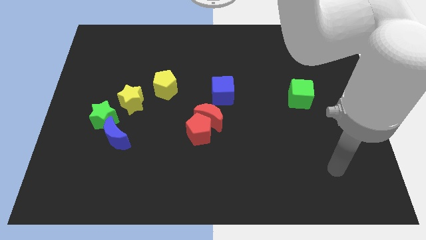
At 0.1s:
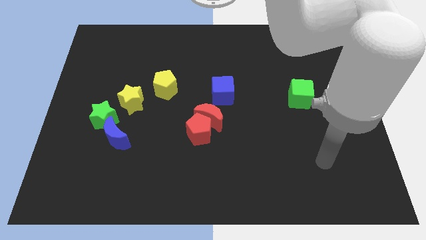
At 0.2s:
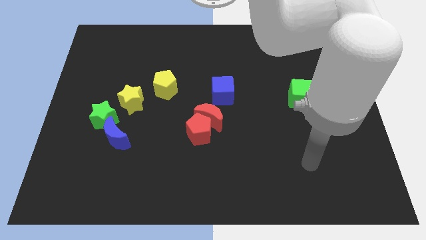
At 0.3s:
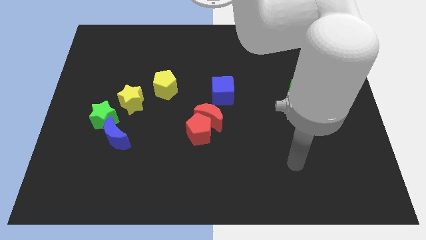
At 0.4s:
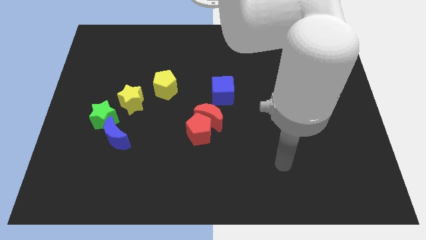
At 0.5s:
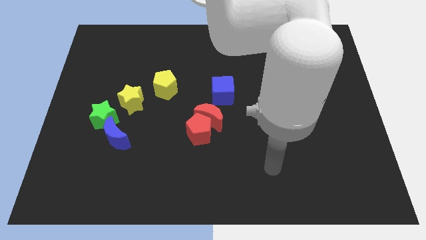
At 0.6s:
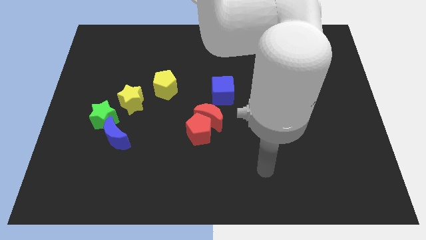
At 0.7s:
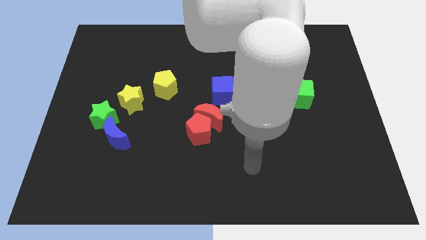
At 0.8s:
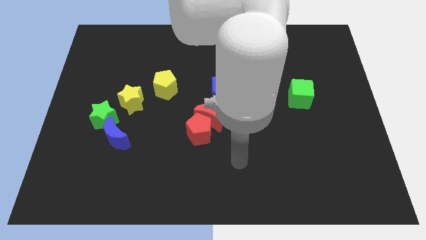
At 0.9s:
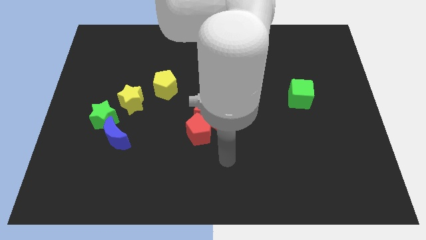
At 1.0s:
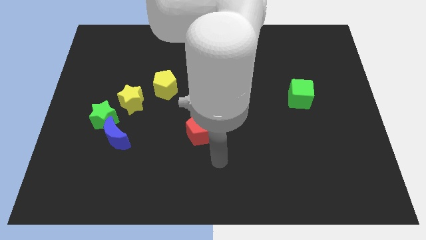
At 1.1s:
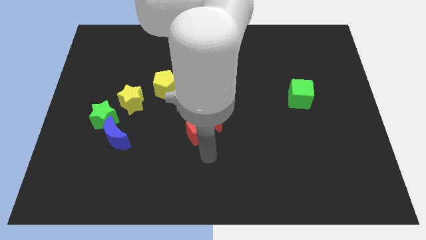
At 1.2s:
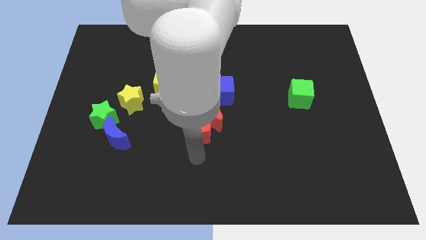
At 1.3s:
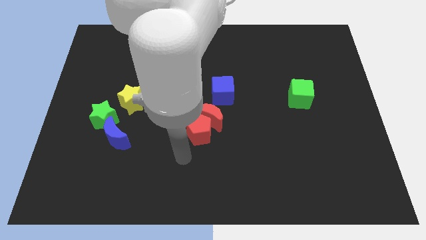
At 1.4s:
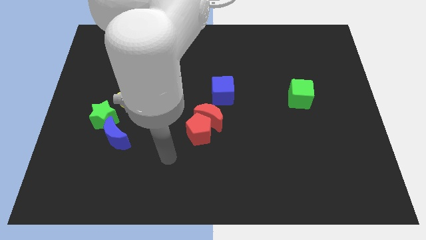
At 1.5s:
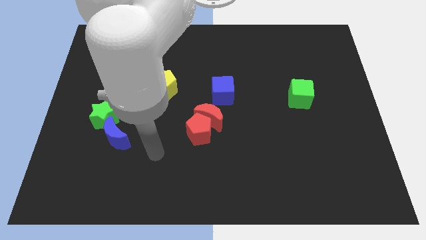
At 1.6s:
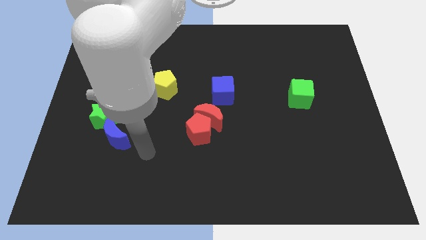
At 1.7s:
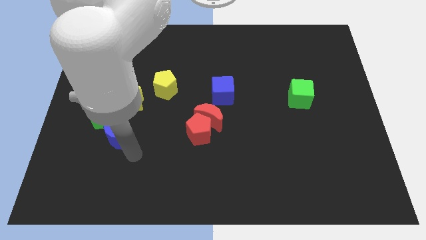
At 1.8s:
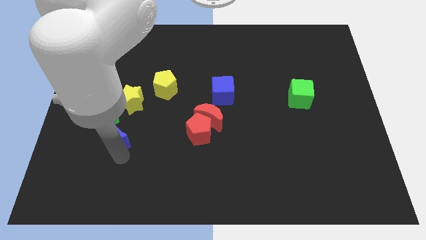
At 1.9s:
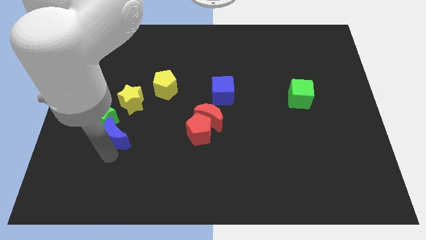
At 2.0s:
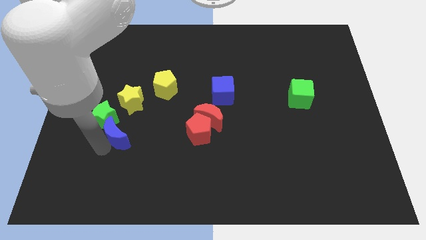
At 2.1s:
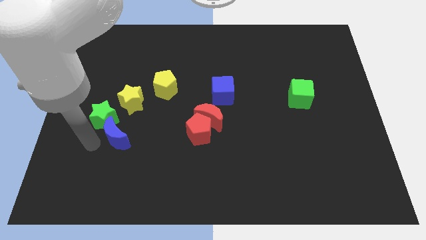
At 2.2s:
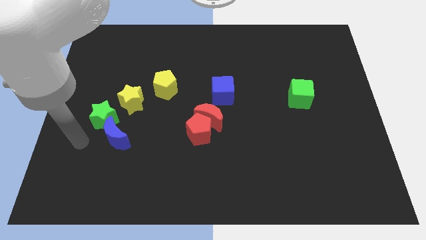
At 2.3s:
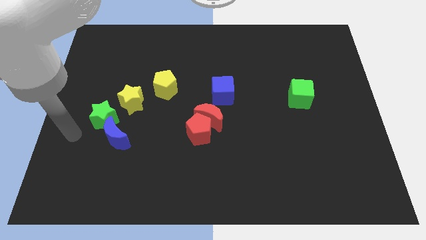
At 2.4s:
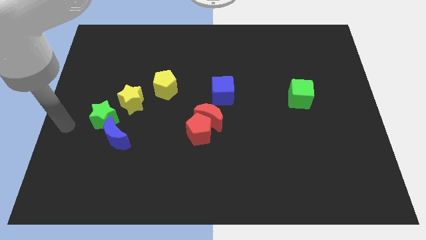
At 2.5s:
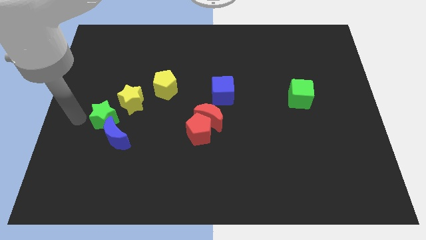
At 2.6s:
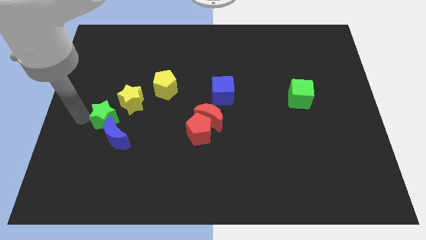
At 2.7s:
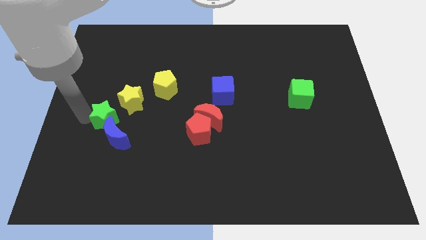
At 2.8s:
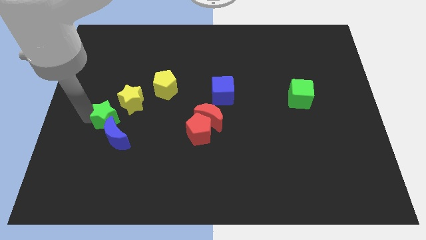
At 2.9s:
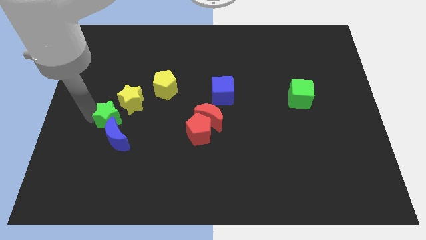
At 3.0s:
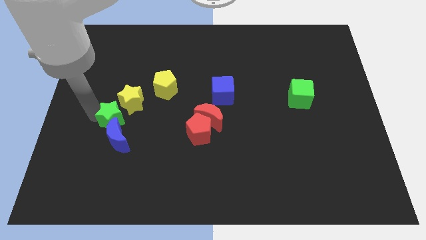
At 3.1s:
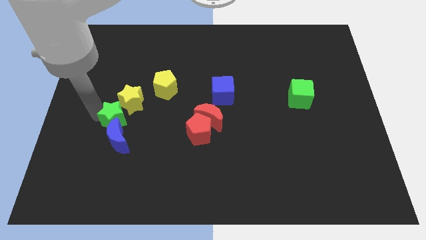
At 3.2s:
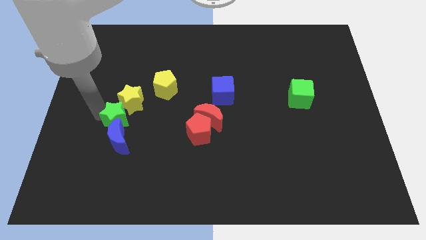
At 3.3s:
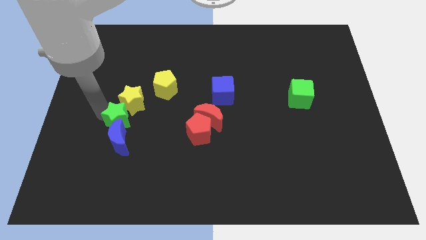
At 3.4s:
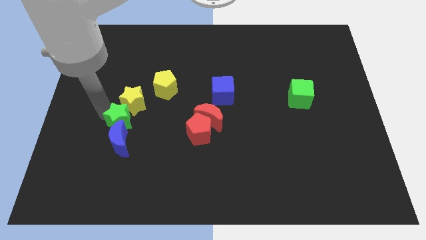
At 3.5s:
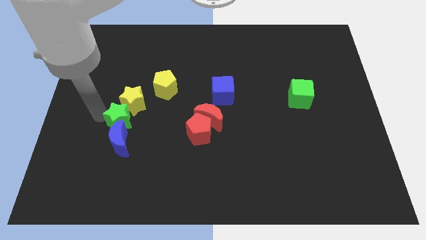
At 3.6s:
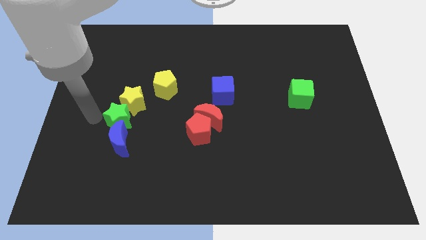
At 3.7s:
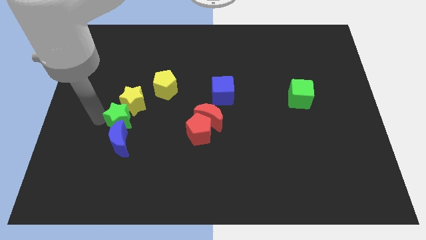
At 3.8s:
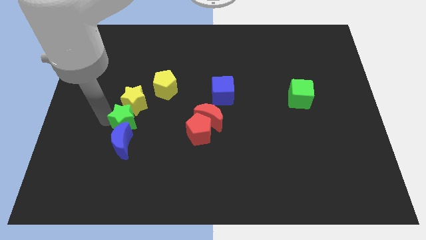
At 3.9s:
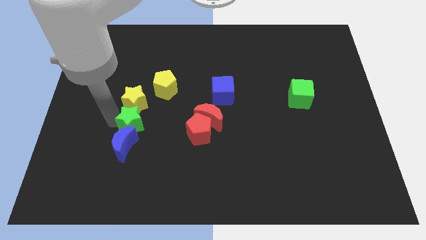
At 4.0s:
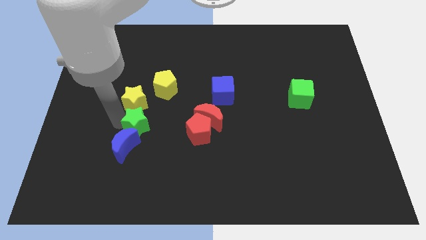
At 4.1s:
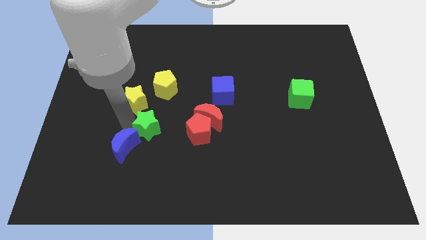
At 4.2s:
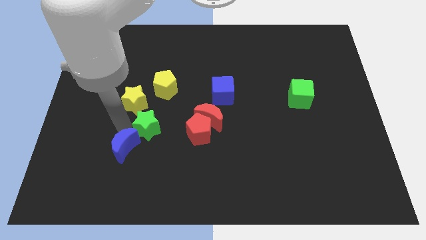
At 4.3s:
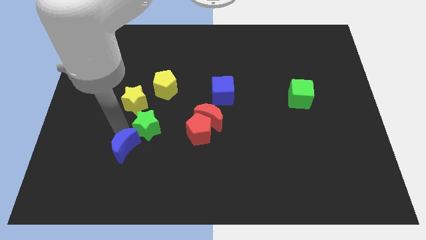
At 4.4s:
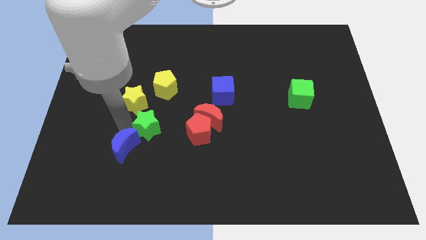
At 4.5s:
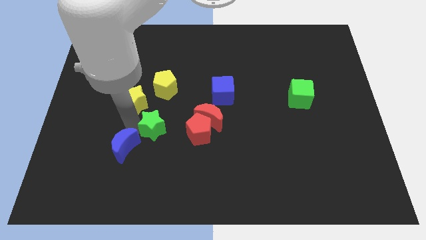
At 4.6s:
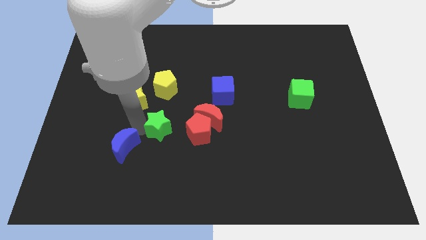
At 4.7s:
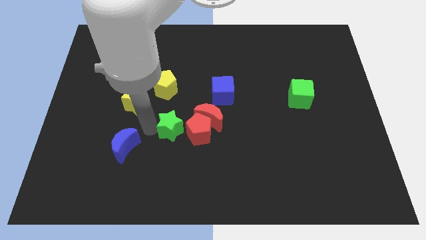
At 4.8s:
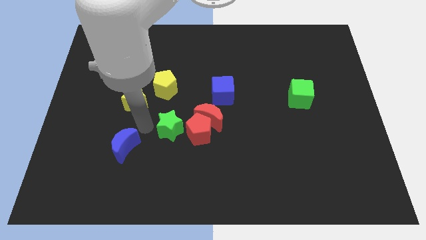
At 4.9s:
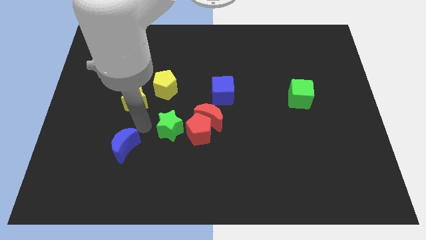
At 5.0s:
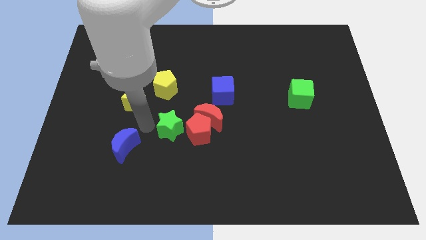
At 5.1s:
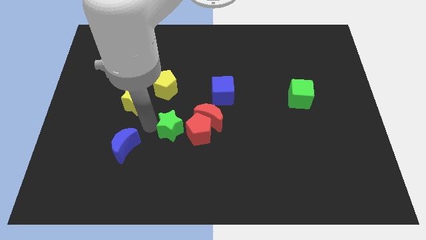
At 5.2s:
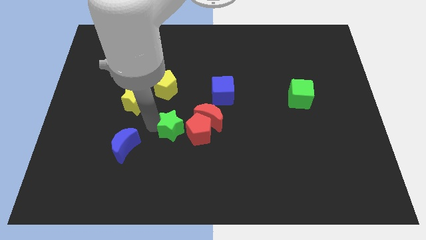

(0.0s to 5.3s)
put the green star next to the red pentagon

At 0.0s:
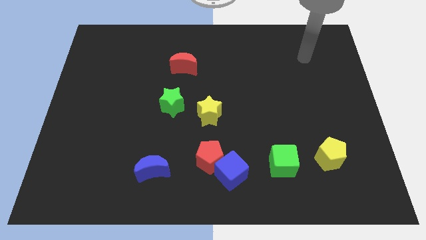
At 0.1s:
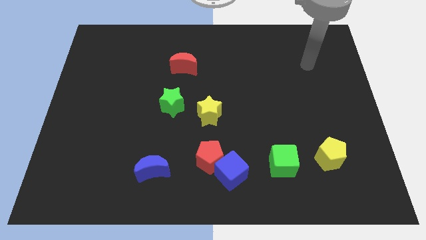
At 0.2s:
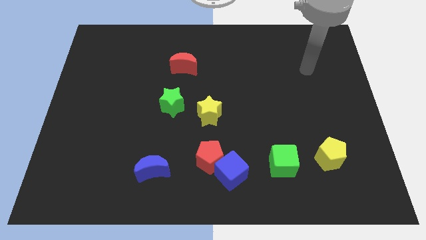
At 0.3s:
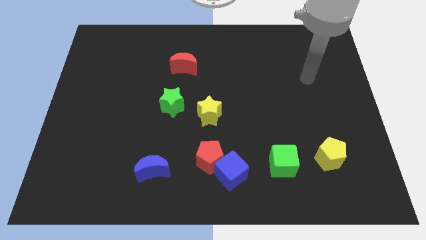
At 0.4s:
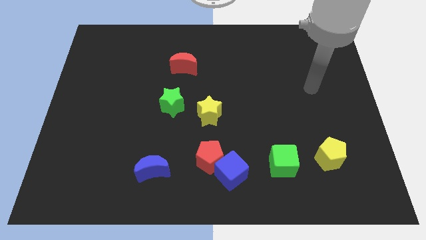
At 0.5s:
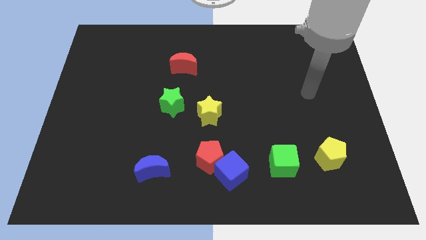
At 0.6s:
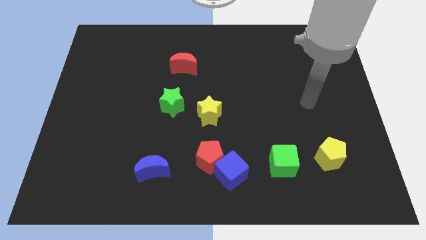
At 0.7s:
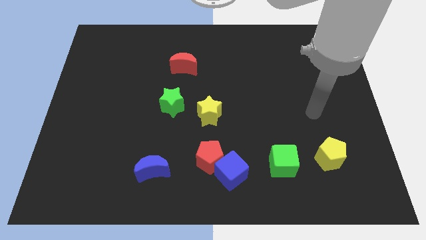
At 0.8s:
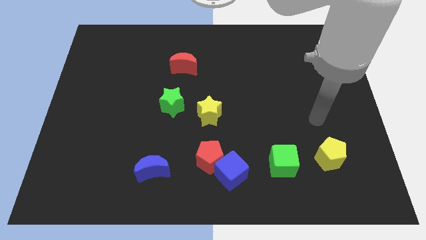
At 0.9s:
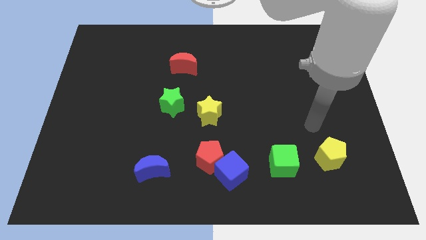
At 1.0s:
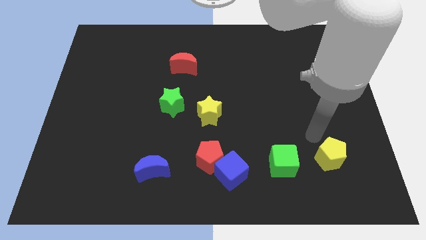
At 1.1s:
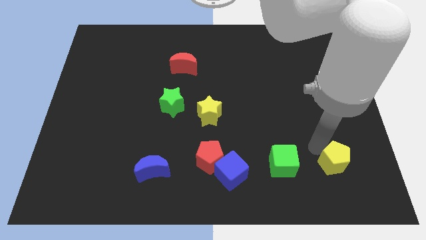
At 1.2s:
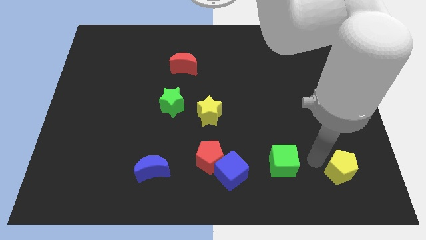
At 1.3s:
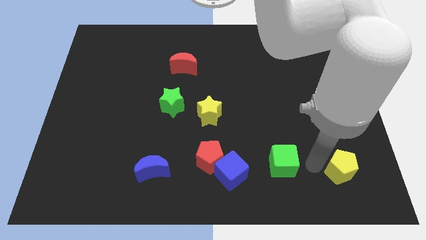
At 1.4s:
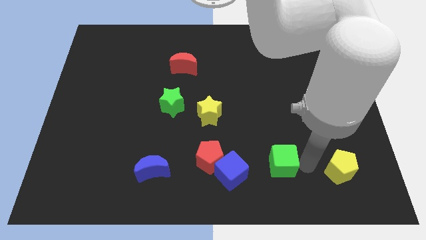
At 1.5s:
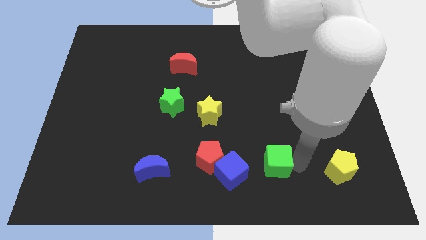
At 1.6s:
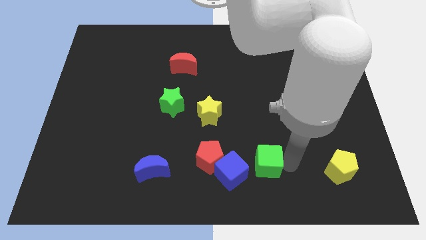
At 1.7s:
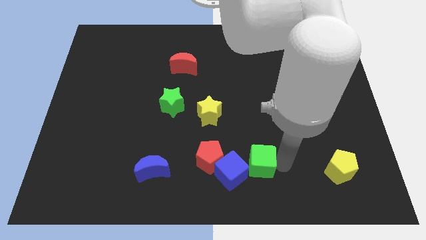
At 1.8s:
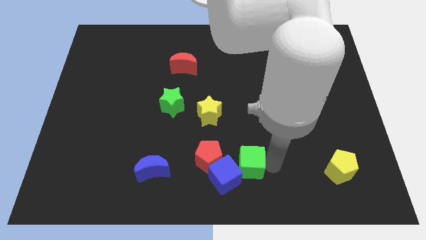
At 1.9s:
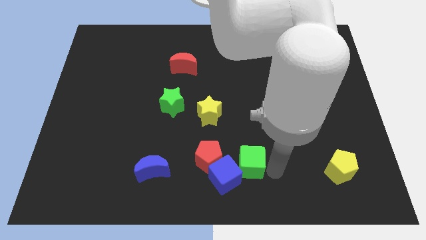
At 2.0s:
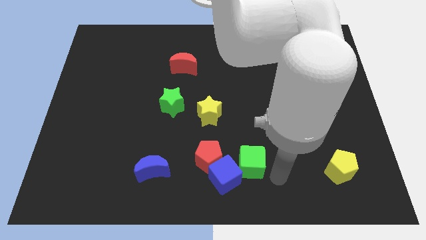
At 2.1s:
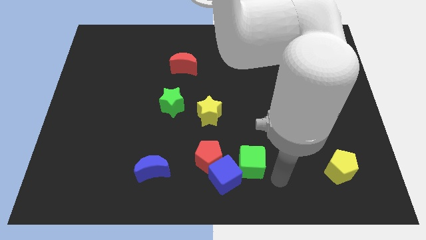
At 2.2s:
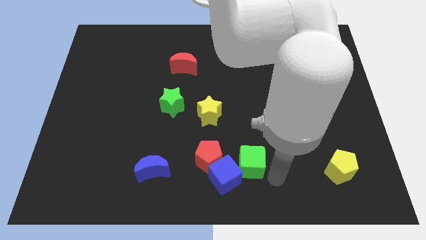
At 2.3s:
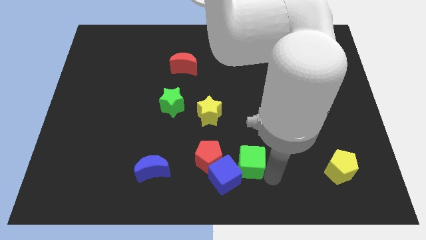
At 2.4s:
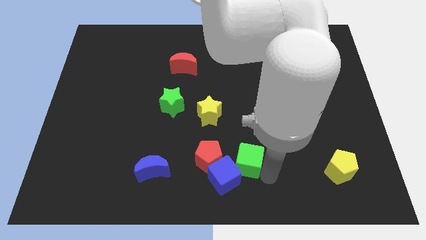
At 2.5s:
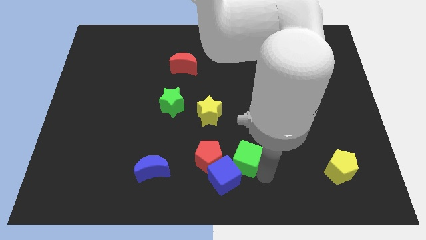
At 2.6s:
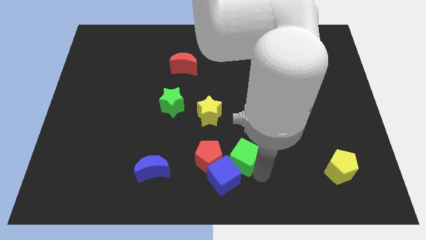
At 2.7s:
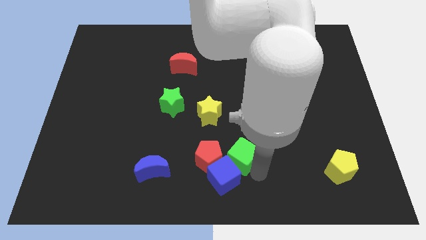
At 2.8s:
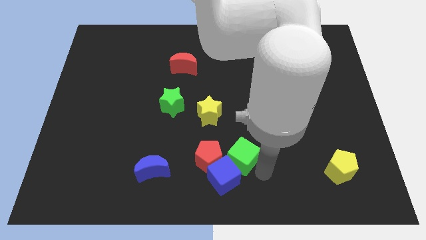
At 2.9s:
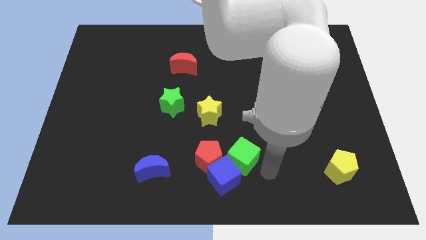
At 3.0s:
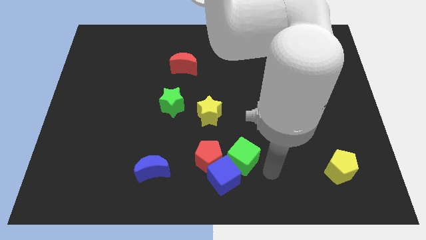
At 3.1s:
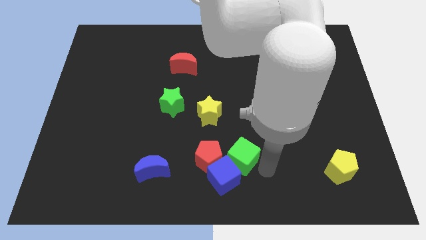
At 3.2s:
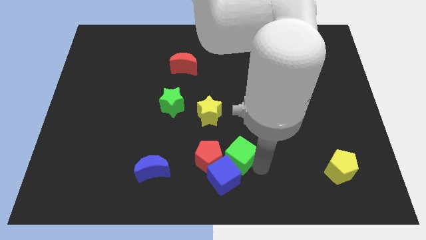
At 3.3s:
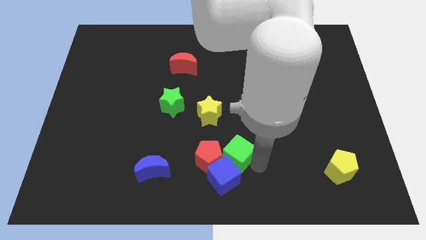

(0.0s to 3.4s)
put the green cube to the red pentagon
